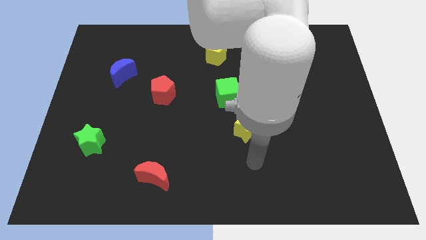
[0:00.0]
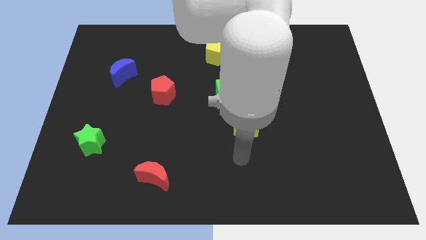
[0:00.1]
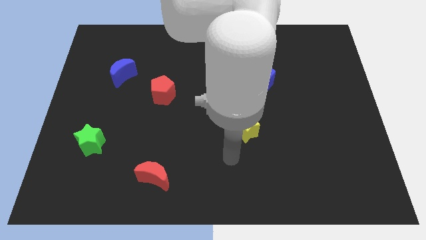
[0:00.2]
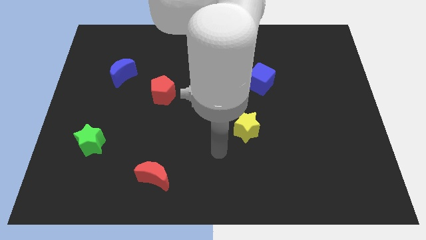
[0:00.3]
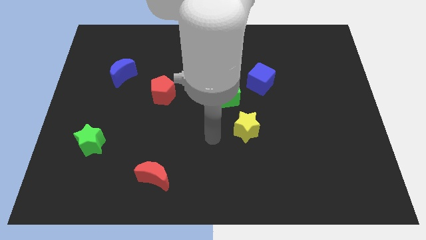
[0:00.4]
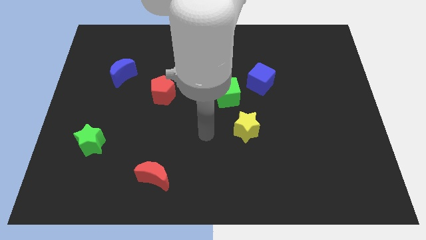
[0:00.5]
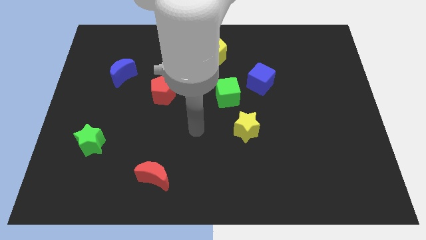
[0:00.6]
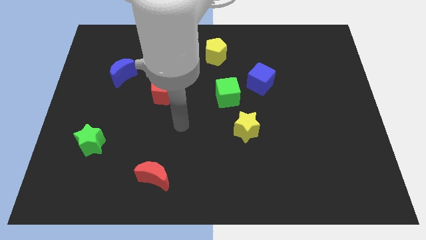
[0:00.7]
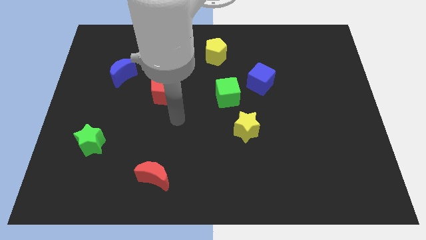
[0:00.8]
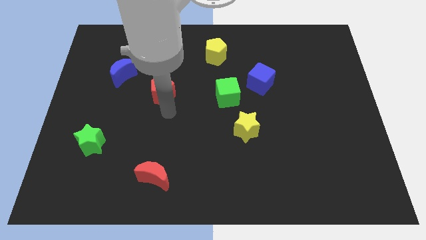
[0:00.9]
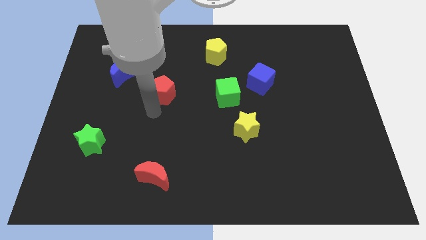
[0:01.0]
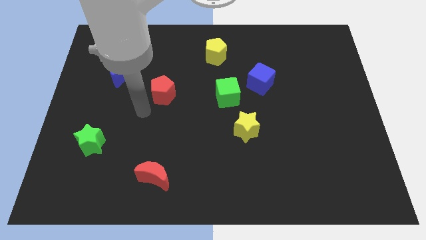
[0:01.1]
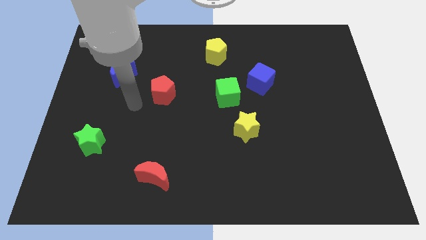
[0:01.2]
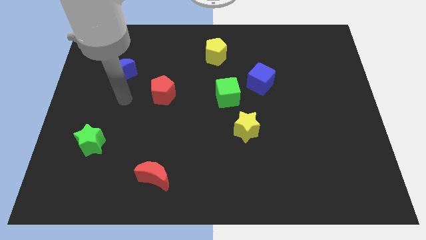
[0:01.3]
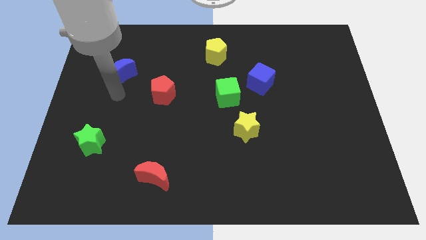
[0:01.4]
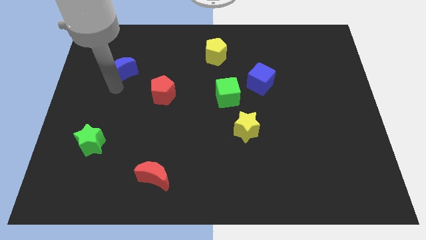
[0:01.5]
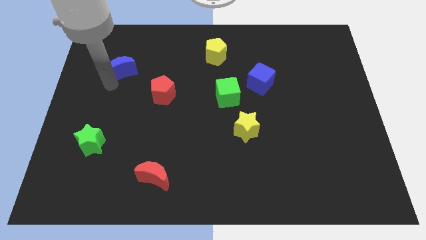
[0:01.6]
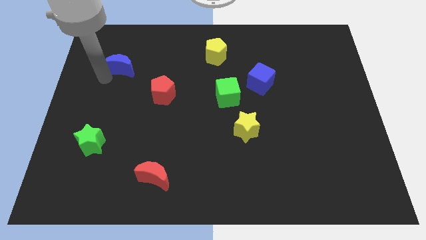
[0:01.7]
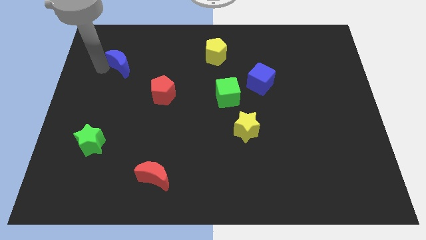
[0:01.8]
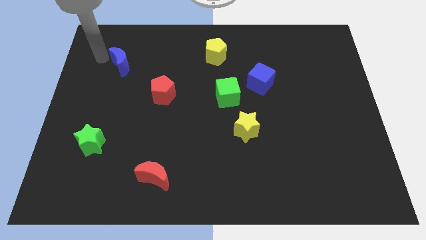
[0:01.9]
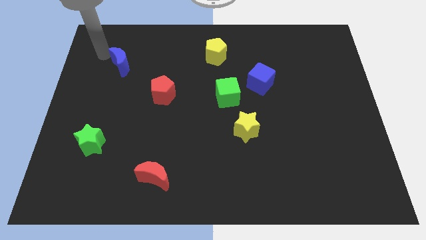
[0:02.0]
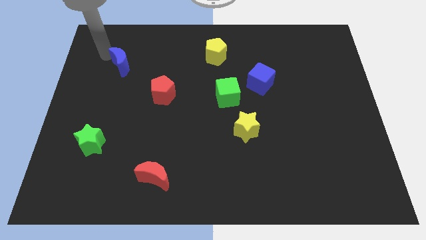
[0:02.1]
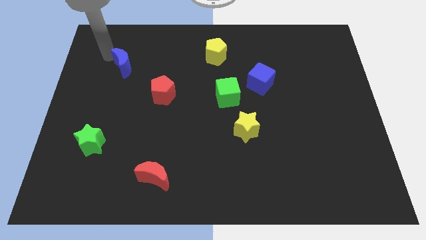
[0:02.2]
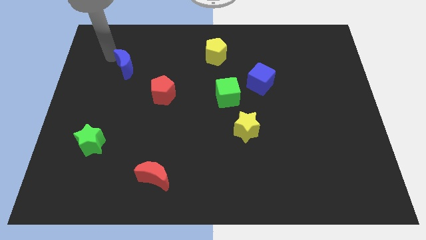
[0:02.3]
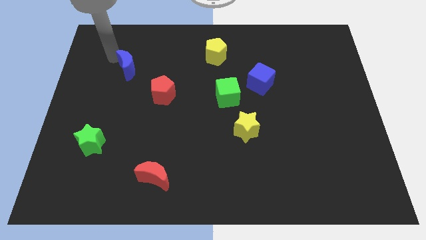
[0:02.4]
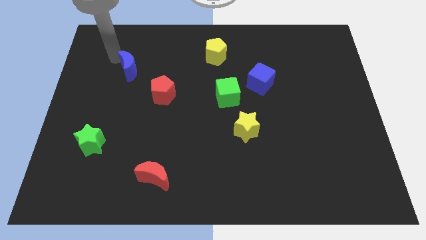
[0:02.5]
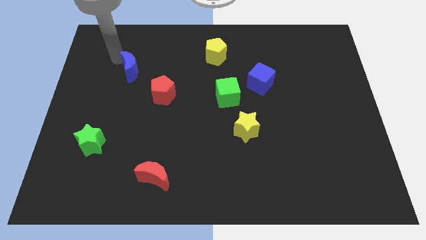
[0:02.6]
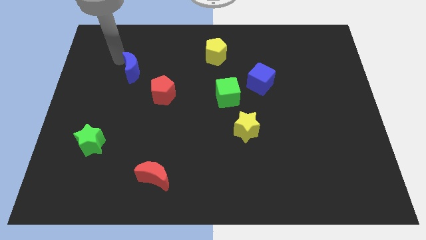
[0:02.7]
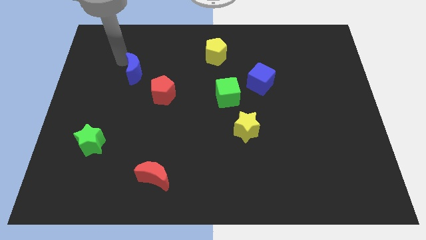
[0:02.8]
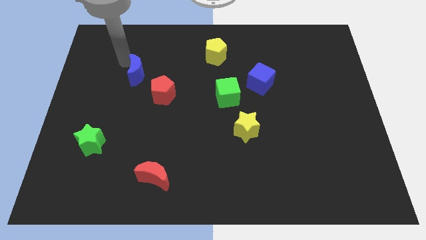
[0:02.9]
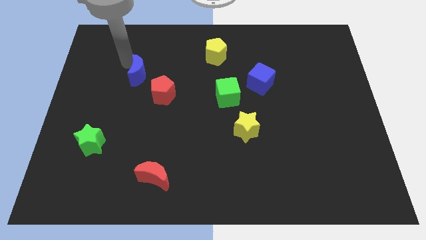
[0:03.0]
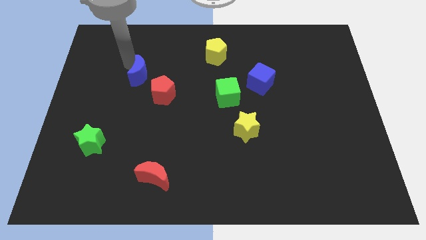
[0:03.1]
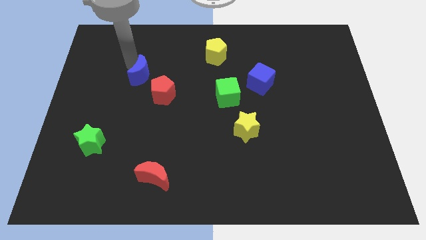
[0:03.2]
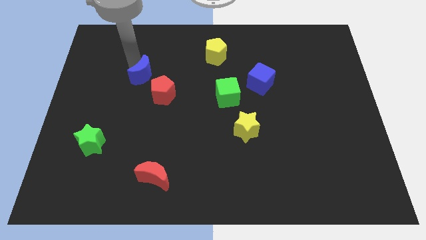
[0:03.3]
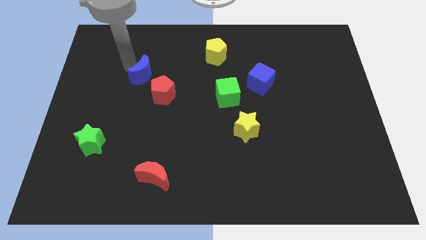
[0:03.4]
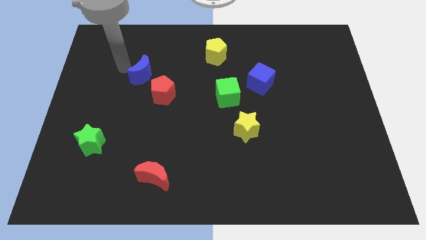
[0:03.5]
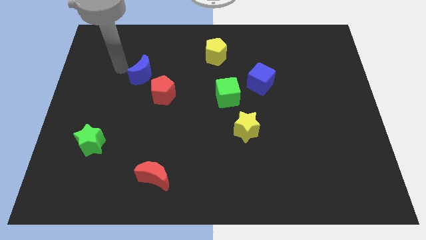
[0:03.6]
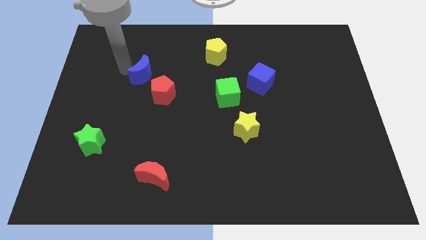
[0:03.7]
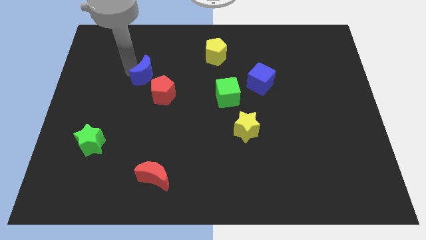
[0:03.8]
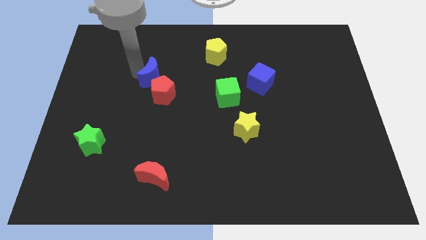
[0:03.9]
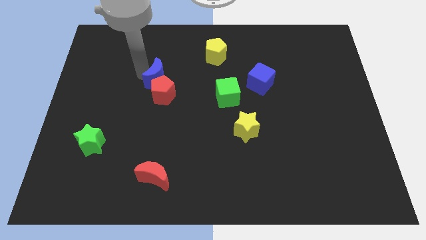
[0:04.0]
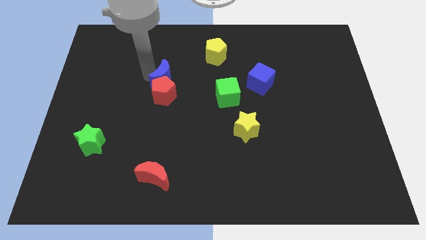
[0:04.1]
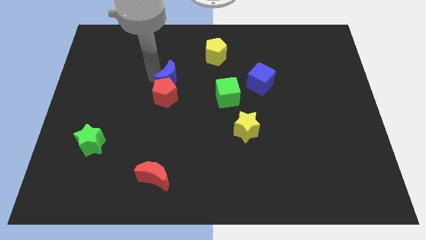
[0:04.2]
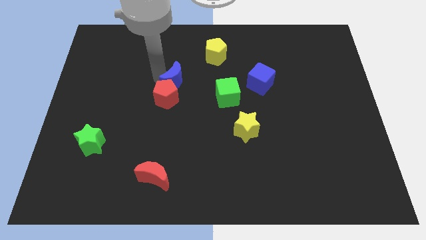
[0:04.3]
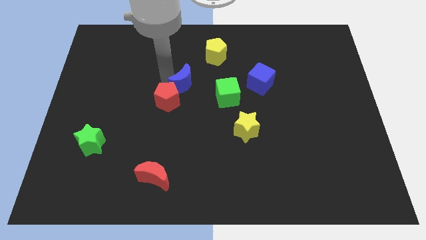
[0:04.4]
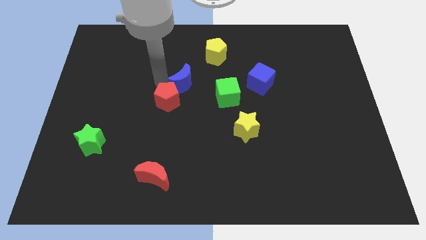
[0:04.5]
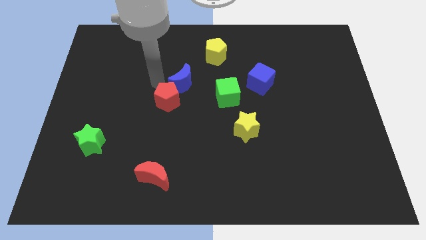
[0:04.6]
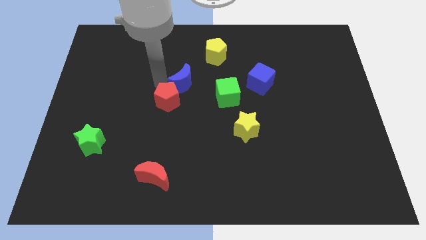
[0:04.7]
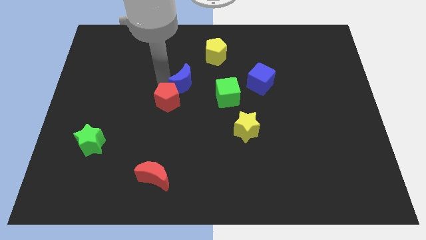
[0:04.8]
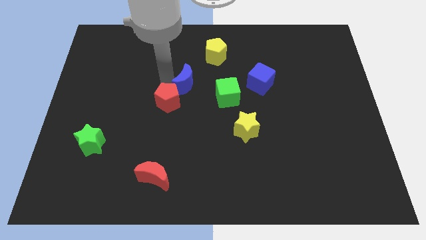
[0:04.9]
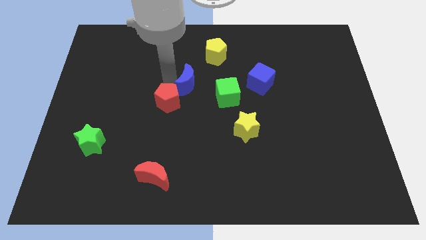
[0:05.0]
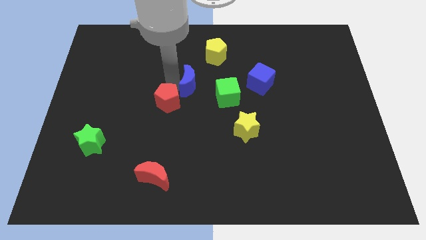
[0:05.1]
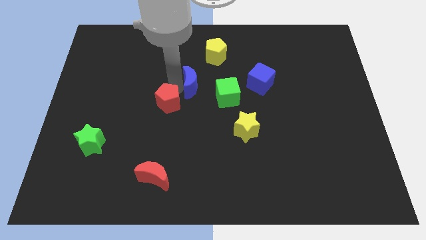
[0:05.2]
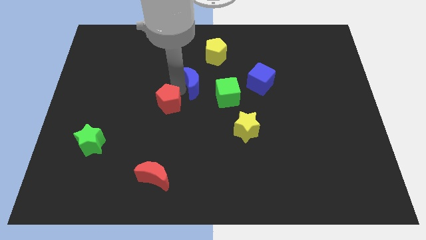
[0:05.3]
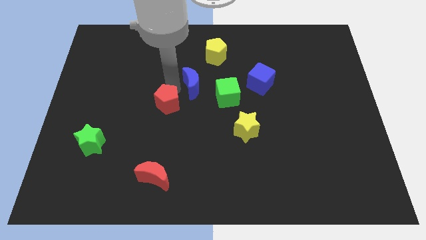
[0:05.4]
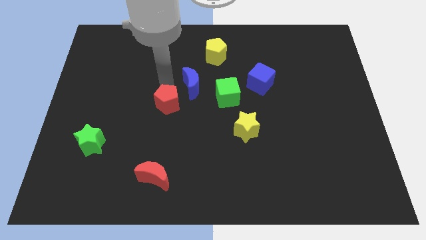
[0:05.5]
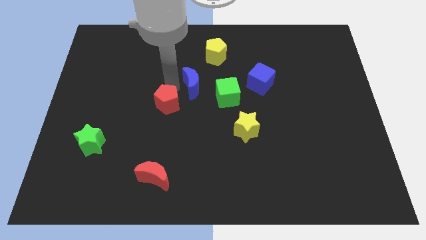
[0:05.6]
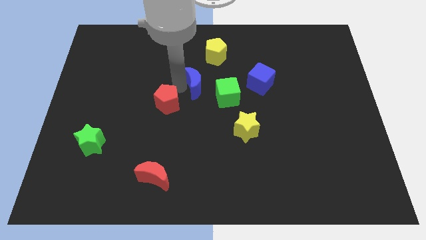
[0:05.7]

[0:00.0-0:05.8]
push the blue moon to the bottom side of the yellow pentagon
